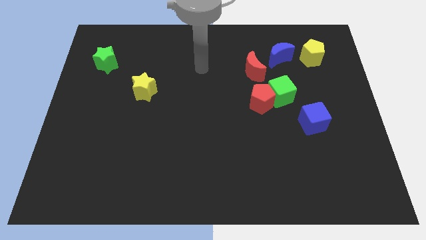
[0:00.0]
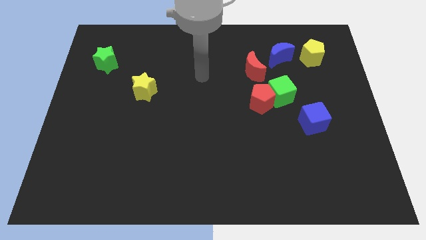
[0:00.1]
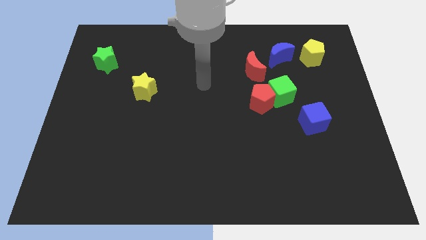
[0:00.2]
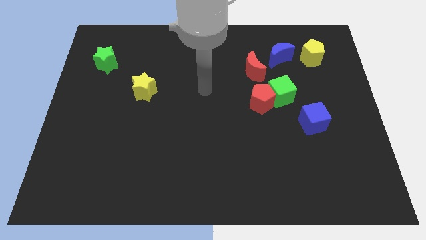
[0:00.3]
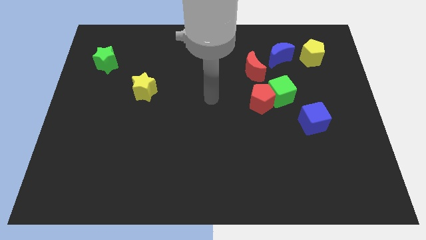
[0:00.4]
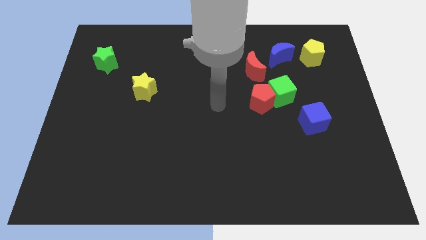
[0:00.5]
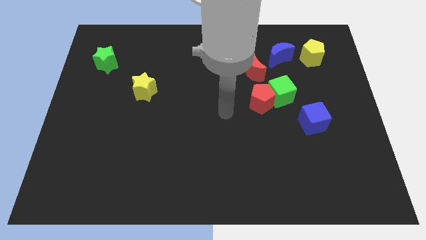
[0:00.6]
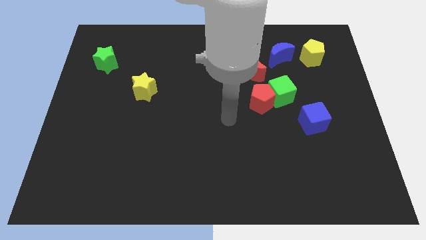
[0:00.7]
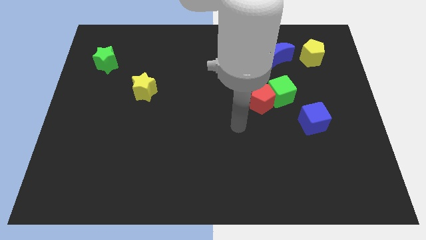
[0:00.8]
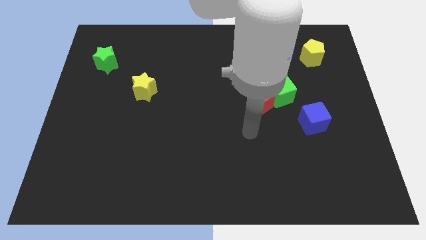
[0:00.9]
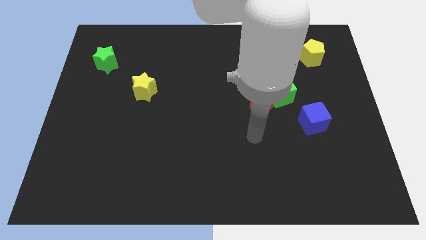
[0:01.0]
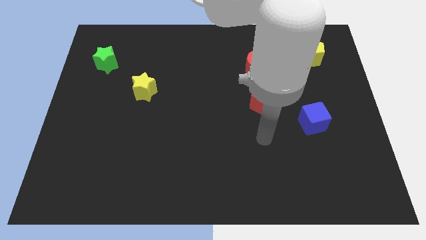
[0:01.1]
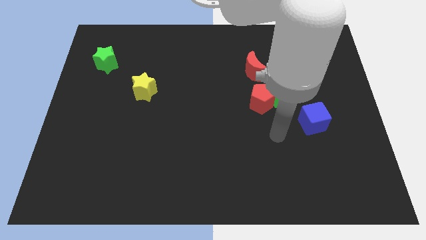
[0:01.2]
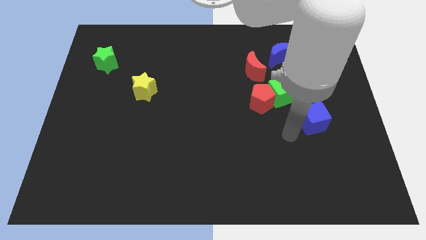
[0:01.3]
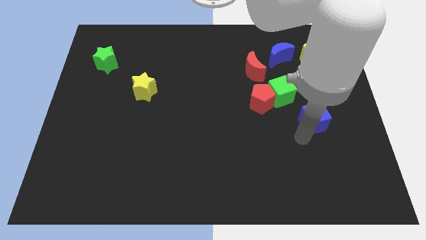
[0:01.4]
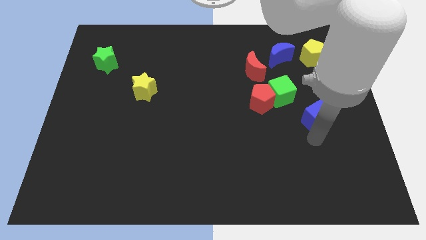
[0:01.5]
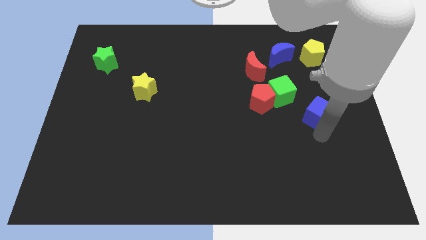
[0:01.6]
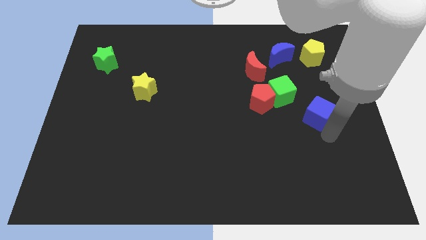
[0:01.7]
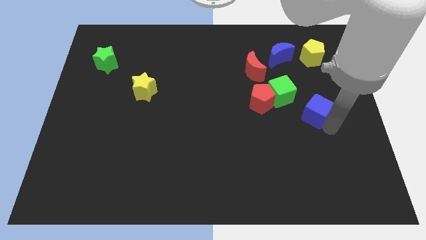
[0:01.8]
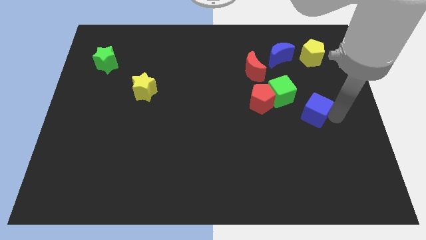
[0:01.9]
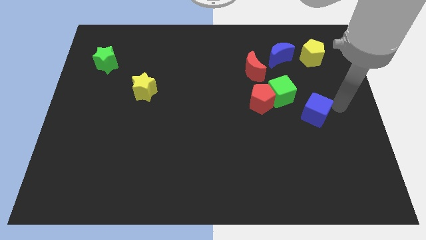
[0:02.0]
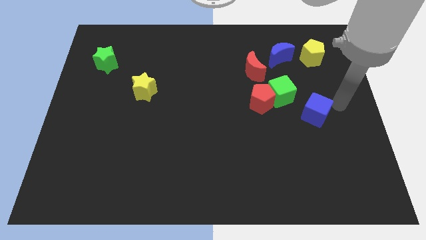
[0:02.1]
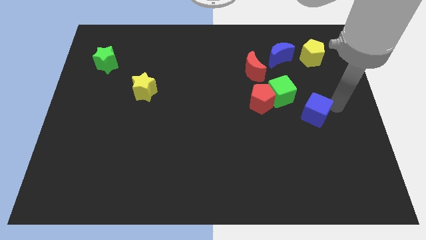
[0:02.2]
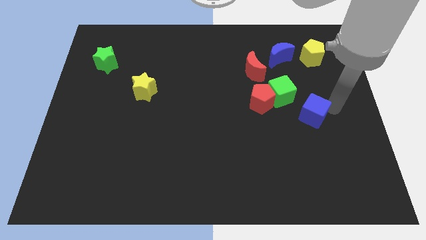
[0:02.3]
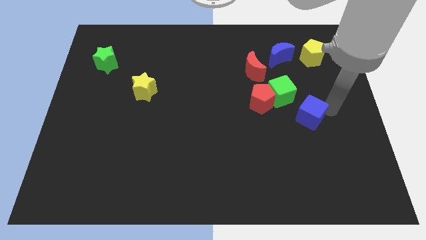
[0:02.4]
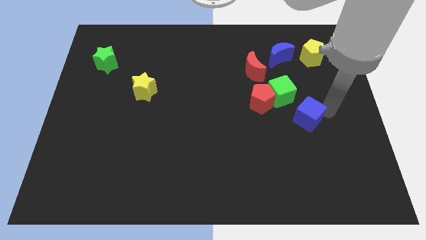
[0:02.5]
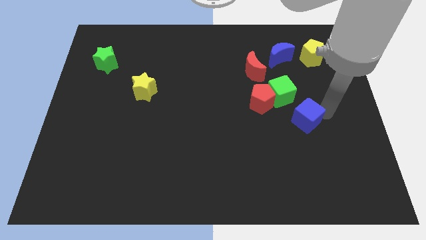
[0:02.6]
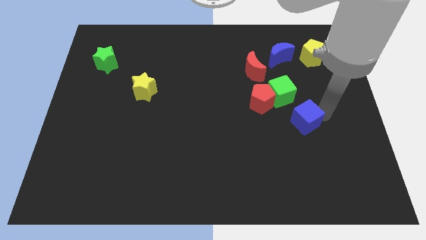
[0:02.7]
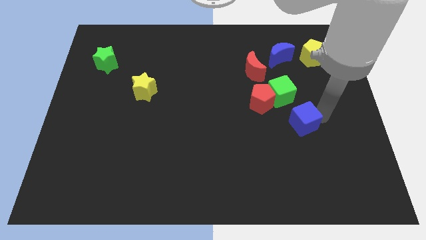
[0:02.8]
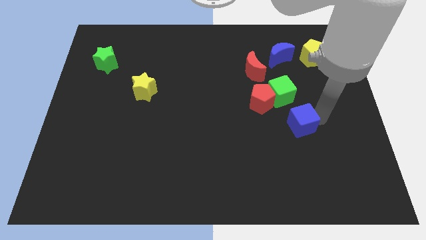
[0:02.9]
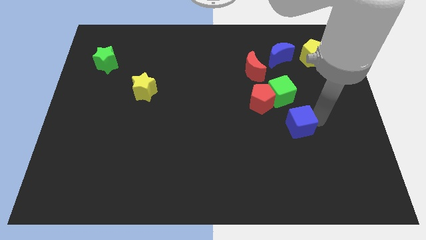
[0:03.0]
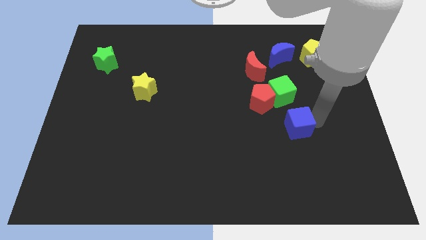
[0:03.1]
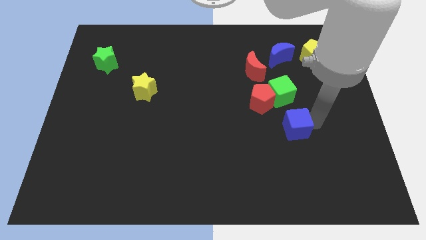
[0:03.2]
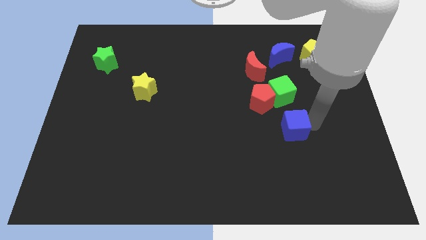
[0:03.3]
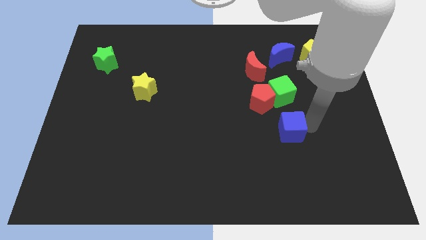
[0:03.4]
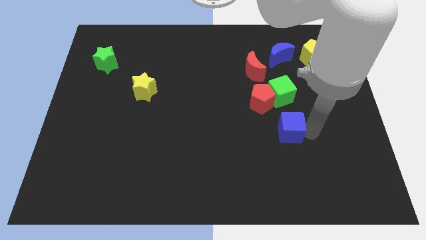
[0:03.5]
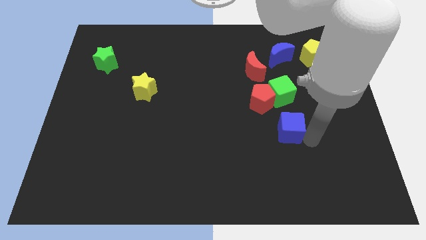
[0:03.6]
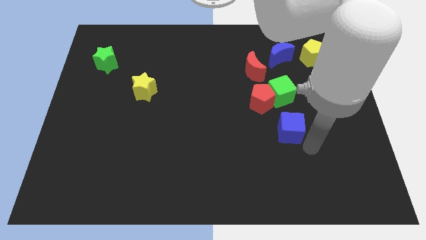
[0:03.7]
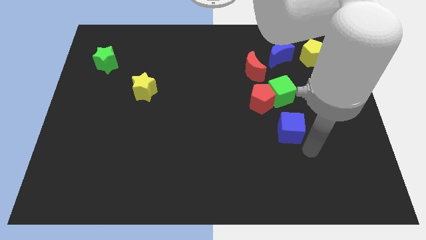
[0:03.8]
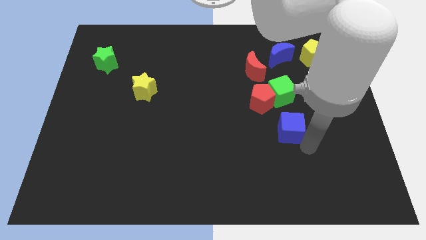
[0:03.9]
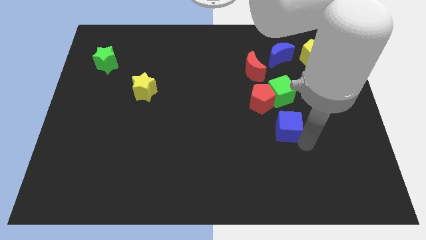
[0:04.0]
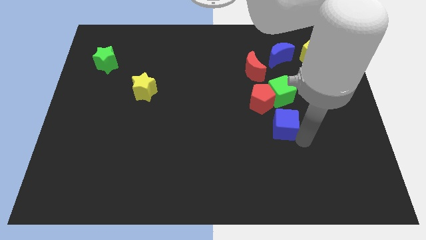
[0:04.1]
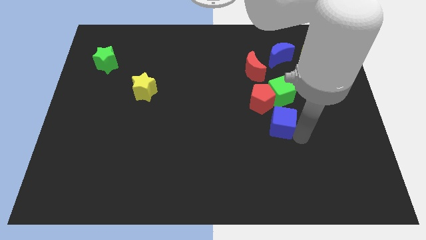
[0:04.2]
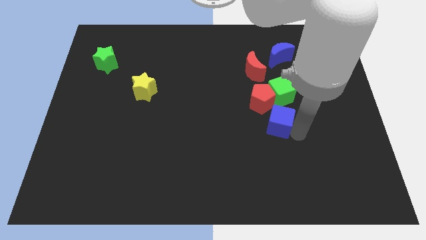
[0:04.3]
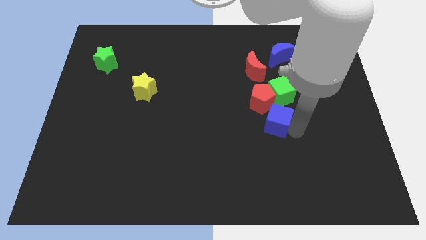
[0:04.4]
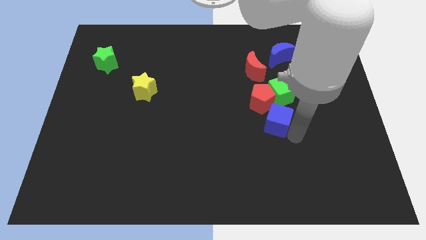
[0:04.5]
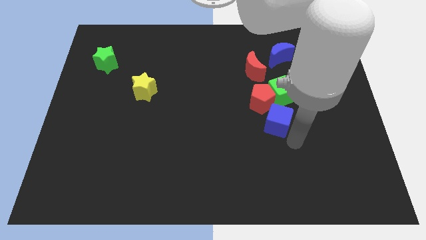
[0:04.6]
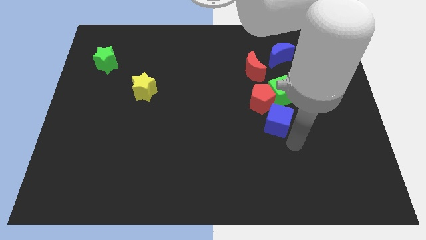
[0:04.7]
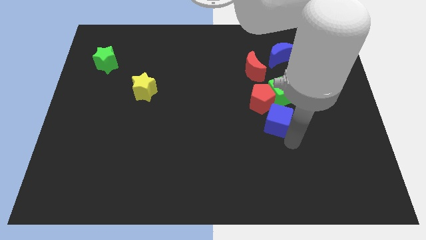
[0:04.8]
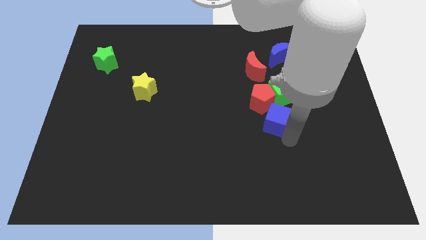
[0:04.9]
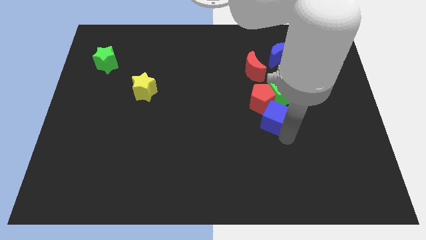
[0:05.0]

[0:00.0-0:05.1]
move the blue cube towards the red pentagon

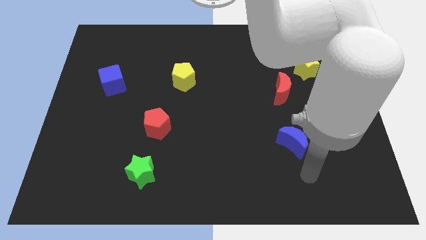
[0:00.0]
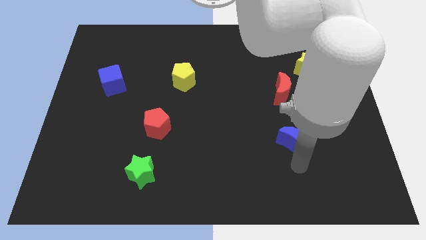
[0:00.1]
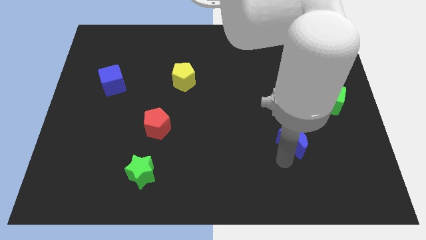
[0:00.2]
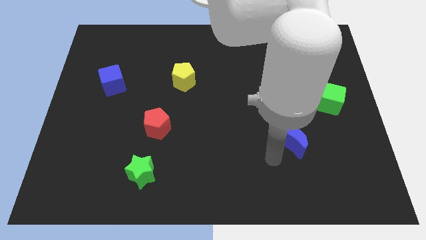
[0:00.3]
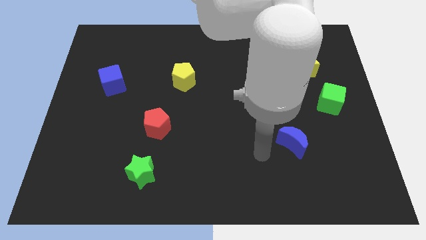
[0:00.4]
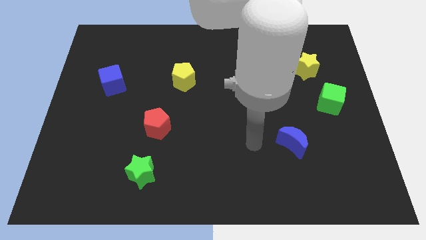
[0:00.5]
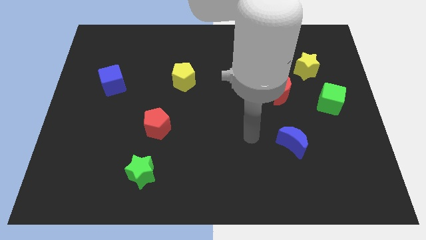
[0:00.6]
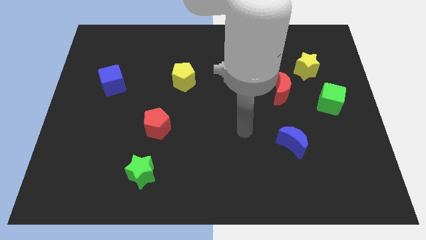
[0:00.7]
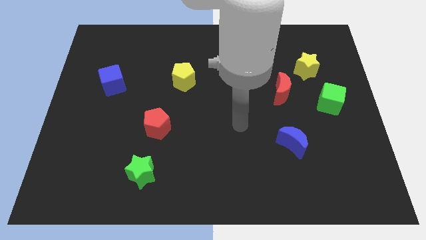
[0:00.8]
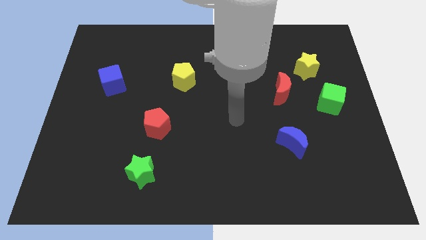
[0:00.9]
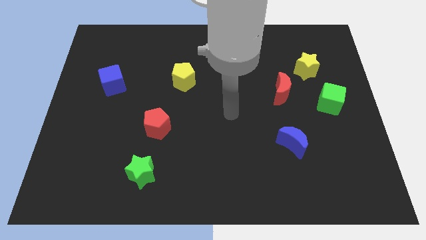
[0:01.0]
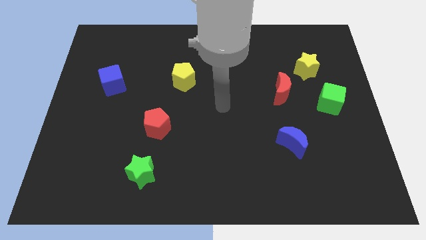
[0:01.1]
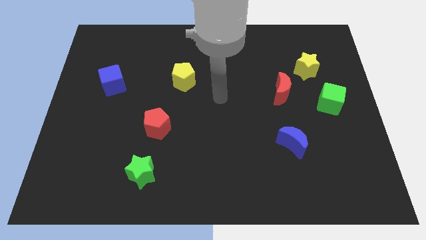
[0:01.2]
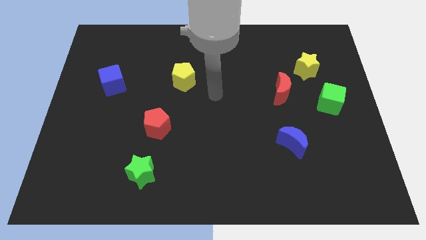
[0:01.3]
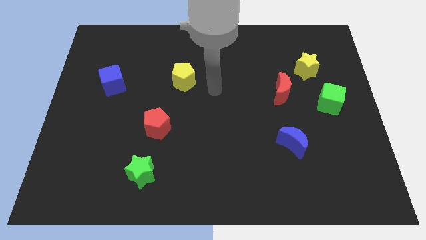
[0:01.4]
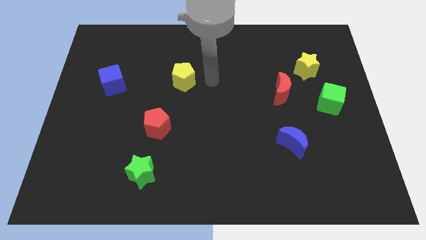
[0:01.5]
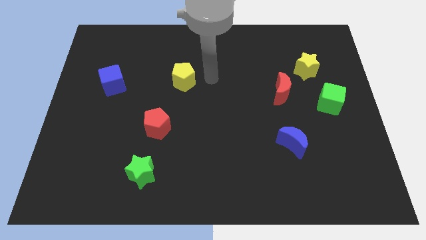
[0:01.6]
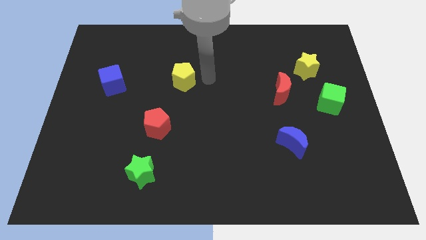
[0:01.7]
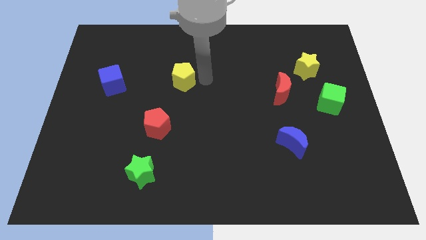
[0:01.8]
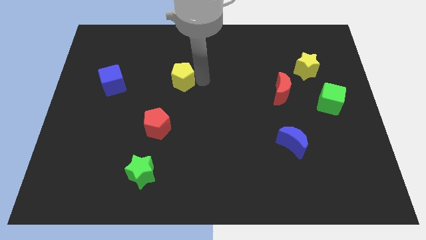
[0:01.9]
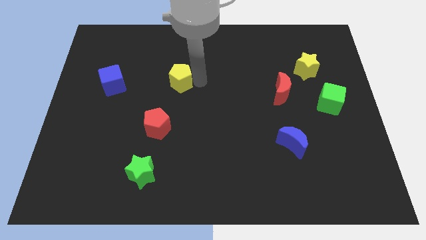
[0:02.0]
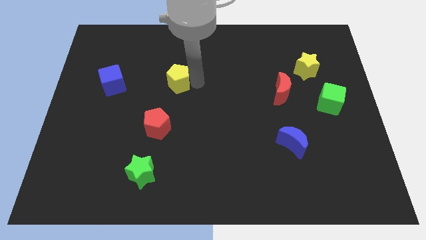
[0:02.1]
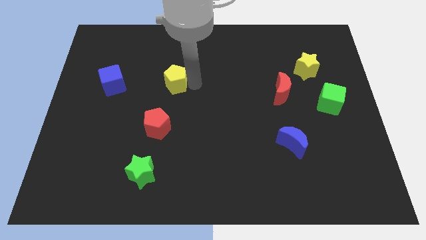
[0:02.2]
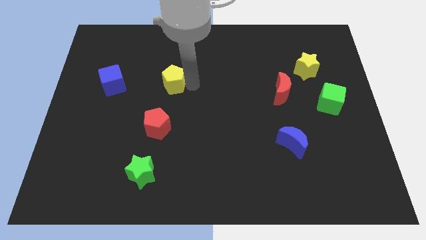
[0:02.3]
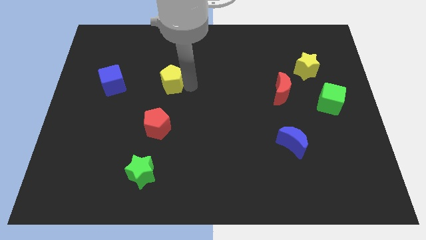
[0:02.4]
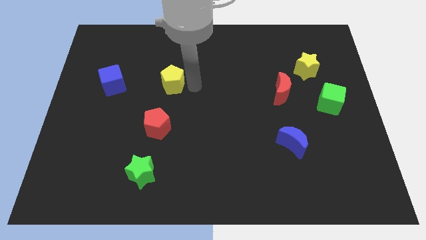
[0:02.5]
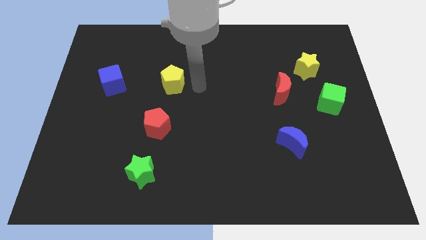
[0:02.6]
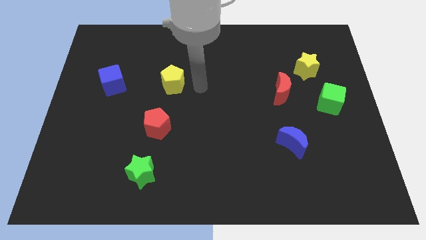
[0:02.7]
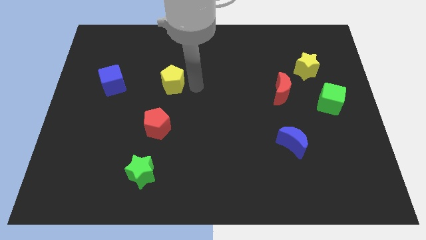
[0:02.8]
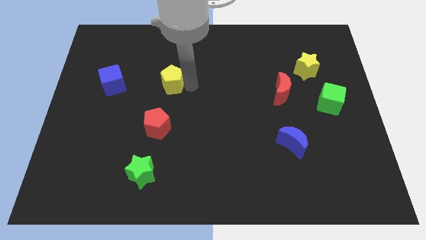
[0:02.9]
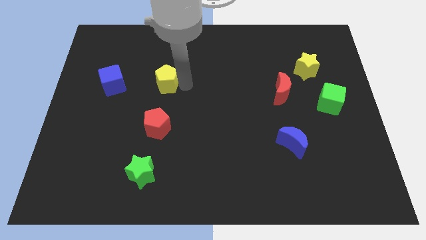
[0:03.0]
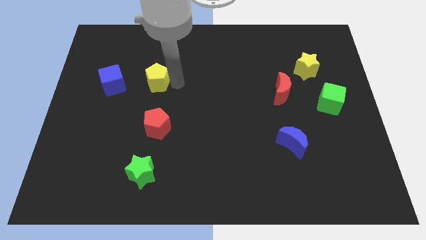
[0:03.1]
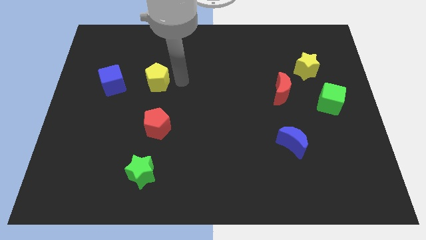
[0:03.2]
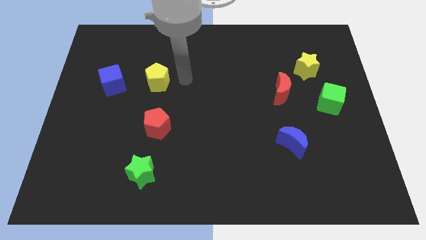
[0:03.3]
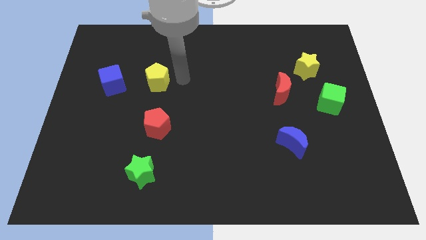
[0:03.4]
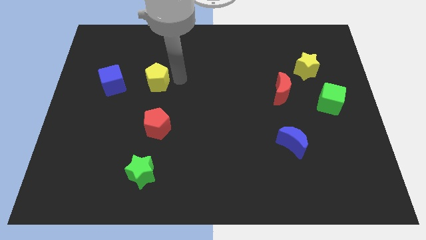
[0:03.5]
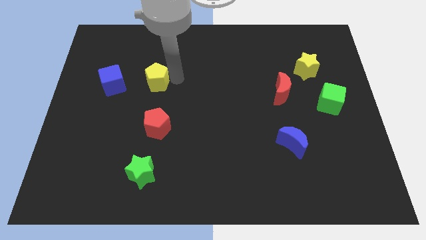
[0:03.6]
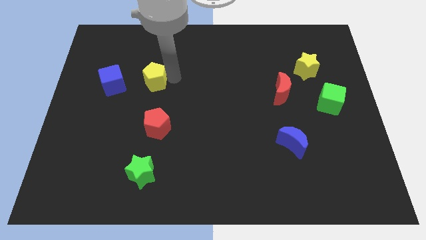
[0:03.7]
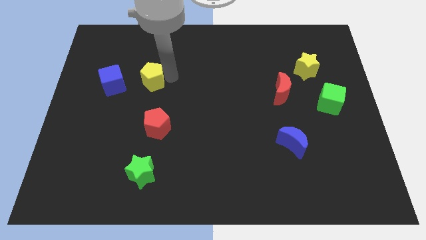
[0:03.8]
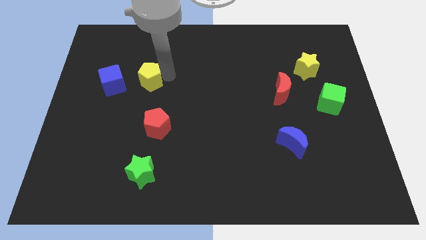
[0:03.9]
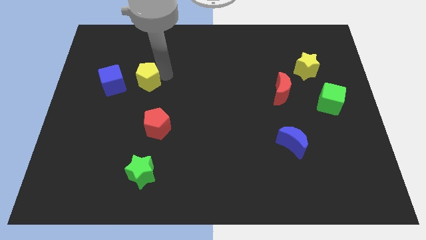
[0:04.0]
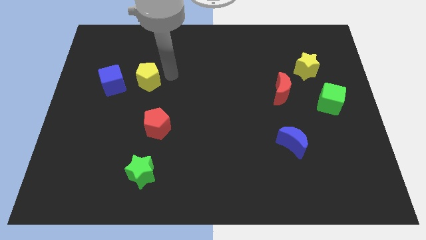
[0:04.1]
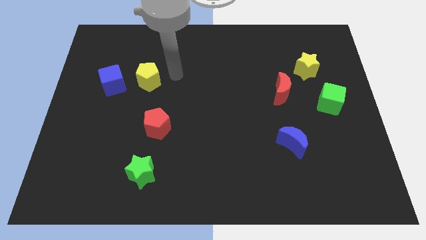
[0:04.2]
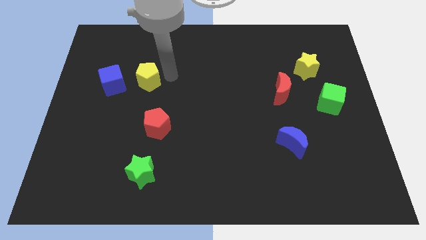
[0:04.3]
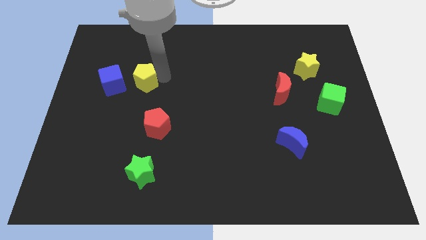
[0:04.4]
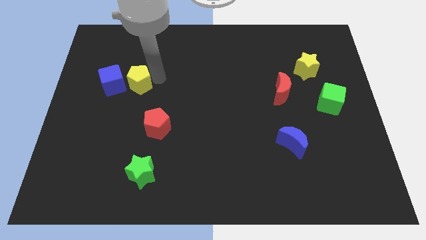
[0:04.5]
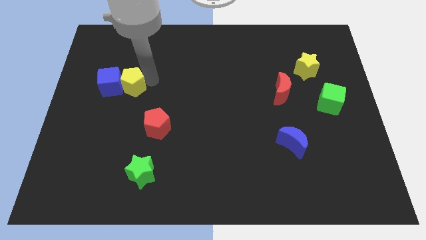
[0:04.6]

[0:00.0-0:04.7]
slide the yellow pentagon next to the blue cube
